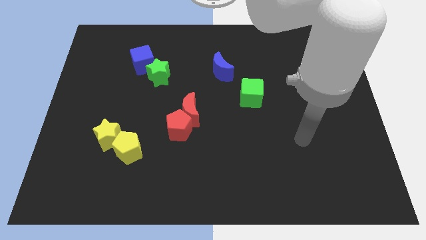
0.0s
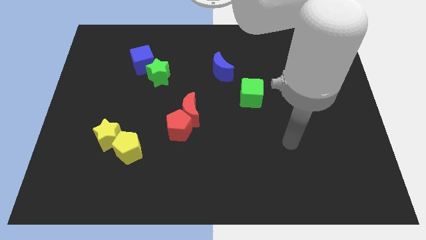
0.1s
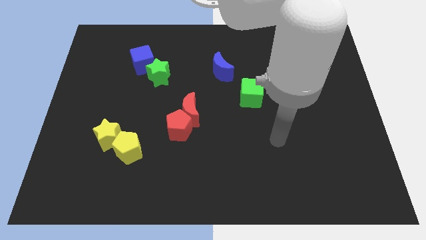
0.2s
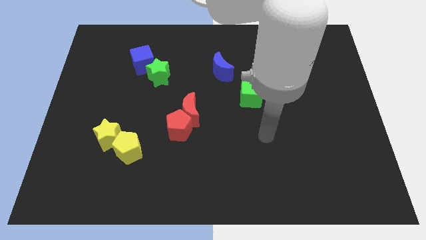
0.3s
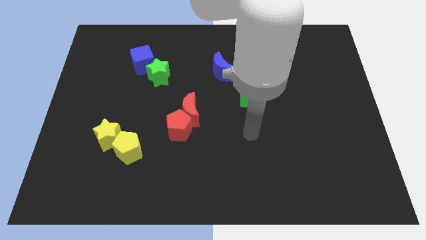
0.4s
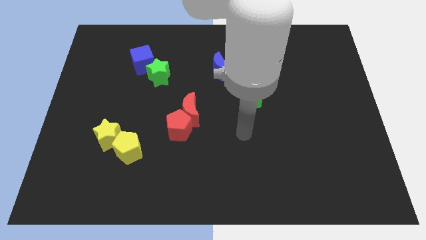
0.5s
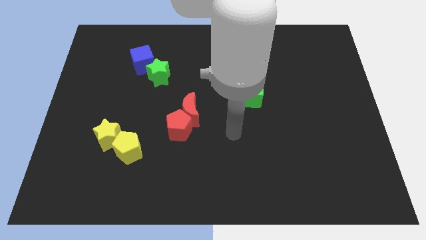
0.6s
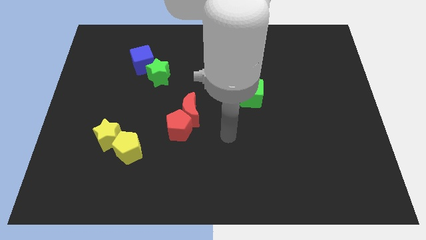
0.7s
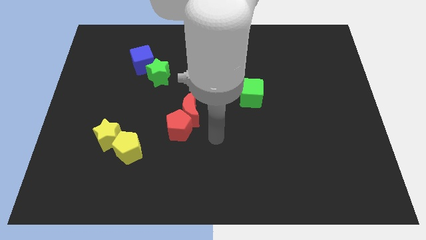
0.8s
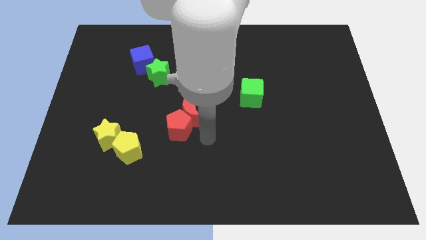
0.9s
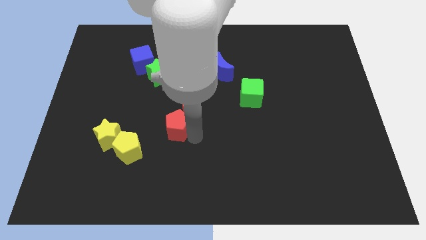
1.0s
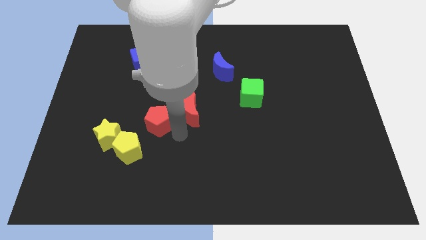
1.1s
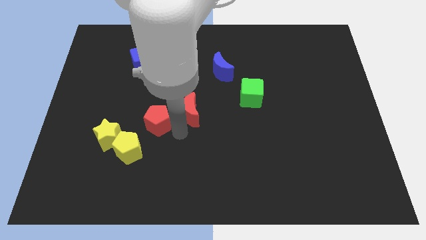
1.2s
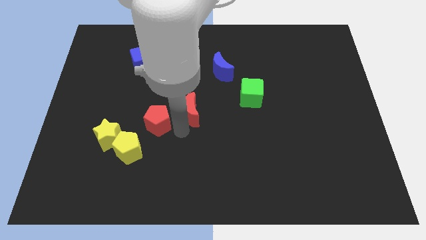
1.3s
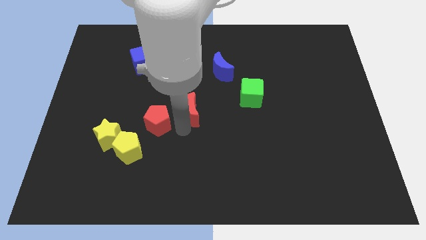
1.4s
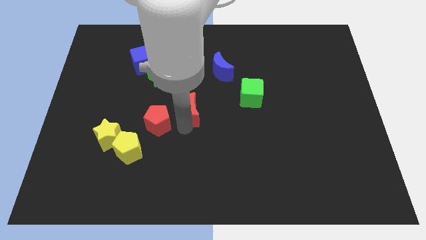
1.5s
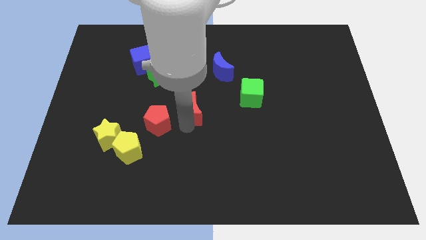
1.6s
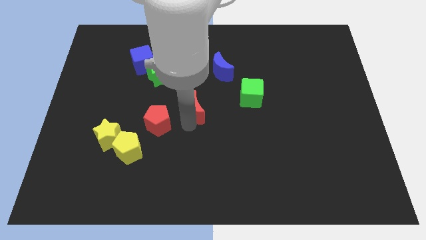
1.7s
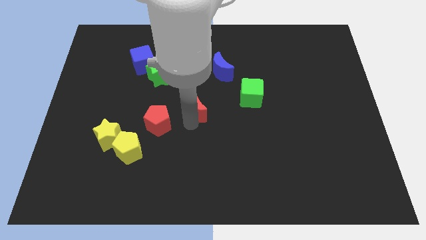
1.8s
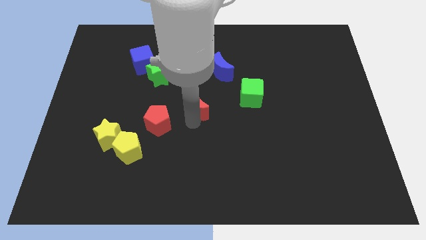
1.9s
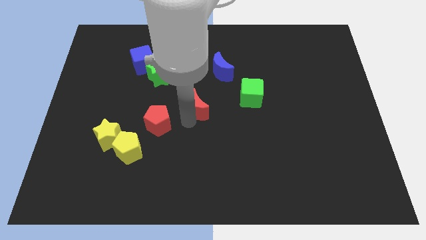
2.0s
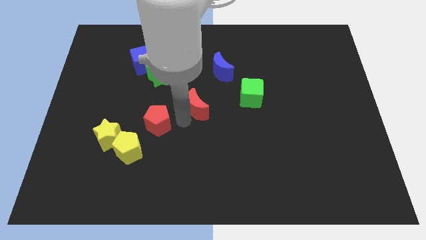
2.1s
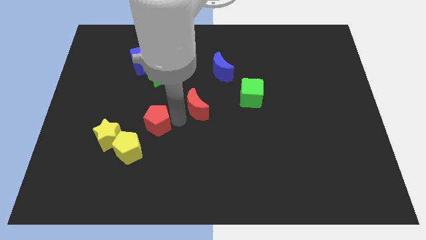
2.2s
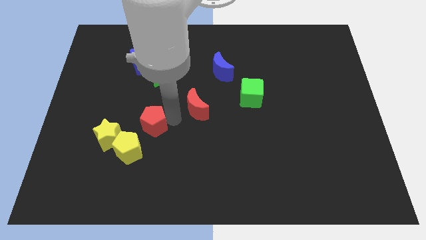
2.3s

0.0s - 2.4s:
pull the red moon apart from the red pentagon

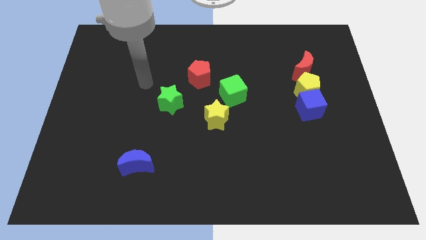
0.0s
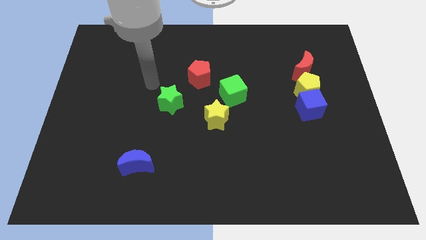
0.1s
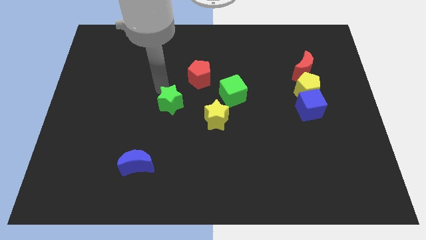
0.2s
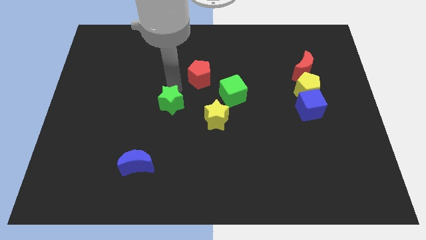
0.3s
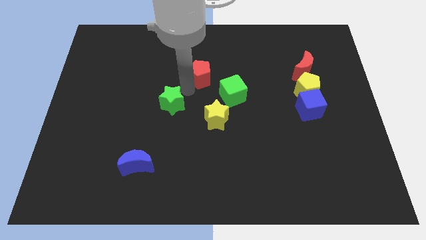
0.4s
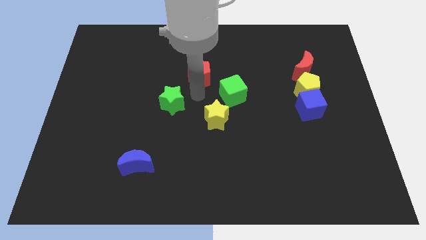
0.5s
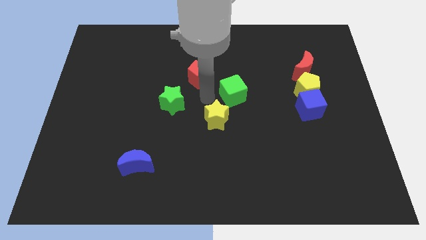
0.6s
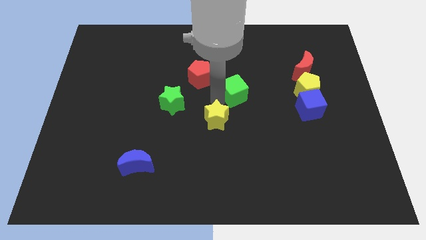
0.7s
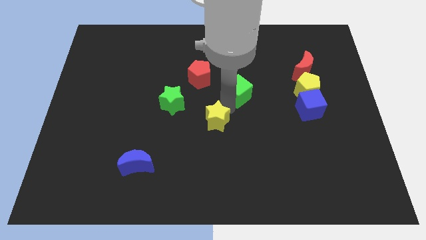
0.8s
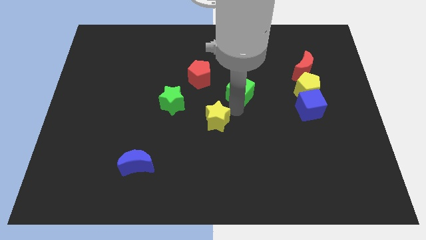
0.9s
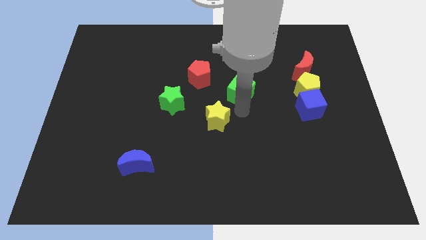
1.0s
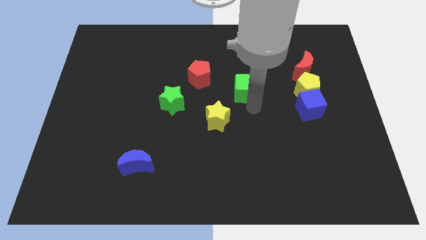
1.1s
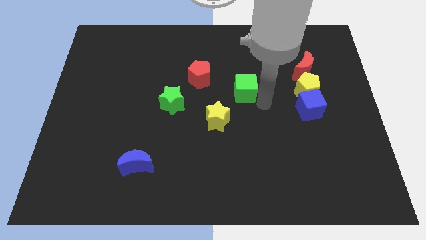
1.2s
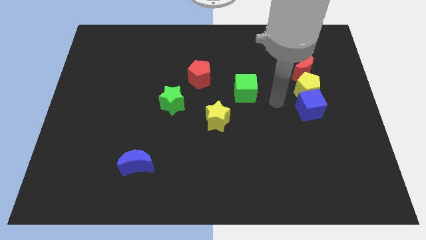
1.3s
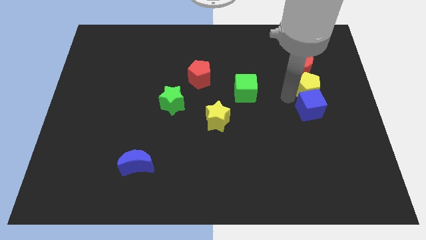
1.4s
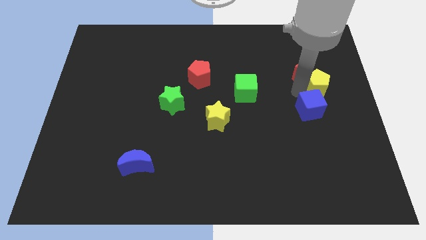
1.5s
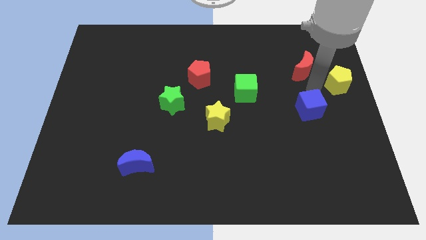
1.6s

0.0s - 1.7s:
move the blue cube away from the yellow pentagon

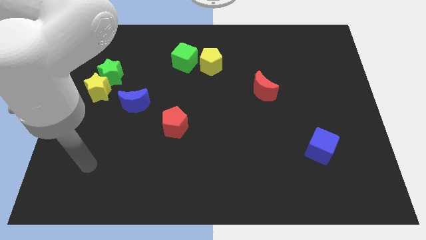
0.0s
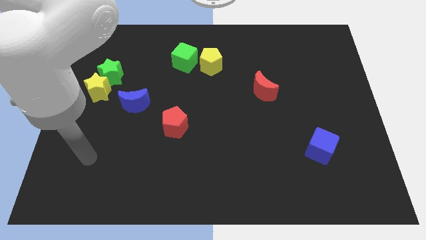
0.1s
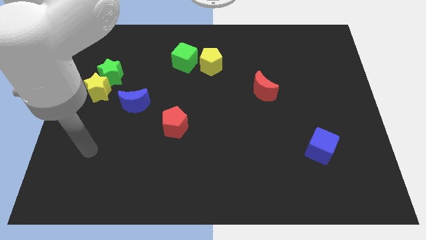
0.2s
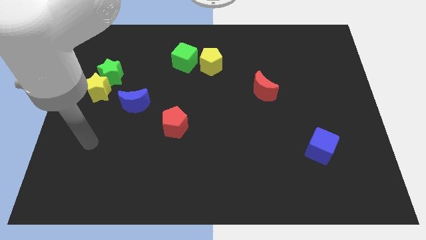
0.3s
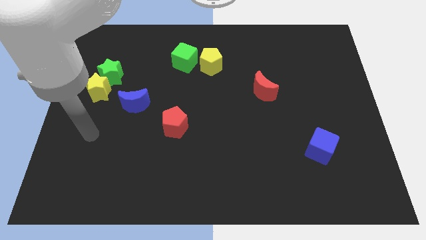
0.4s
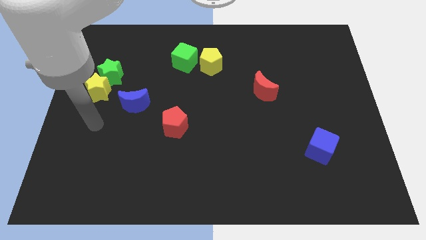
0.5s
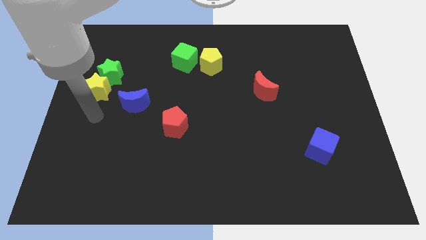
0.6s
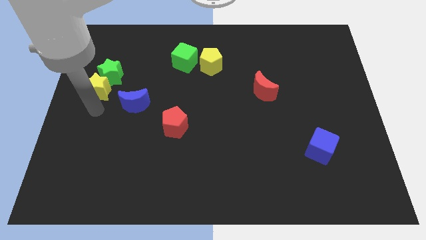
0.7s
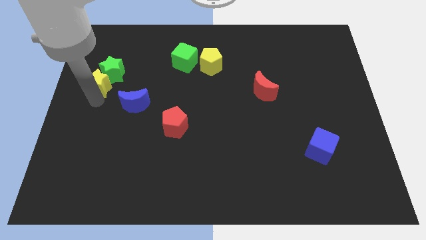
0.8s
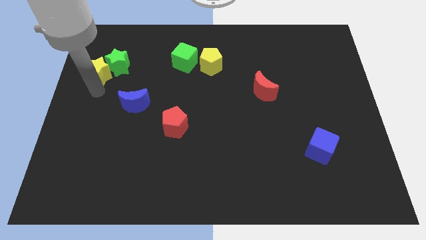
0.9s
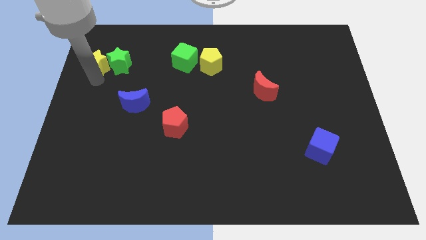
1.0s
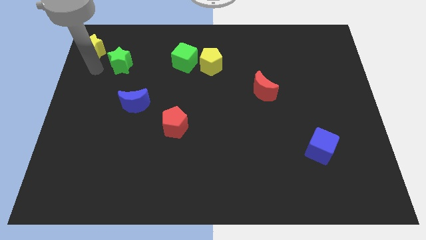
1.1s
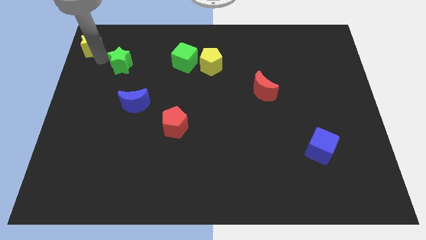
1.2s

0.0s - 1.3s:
move the green star away from the yellow star

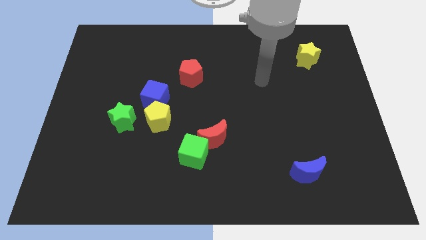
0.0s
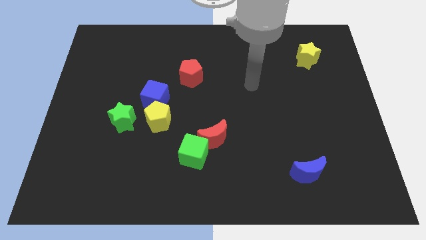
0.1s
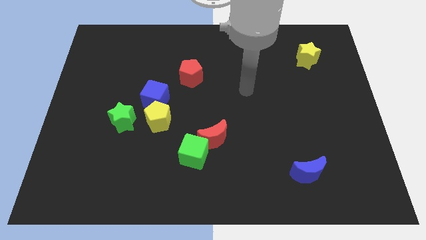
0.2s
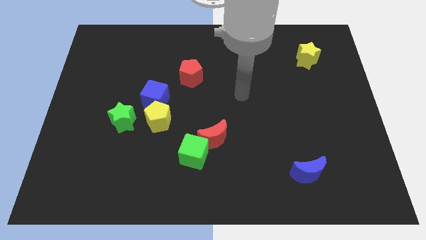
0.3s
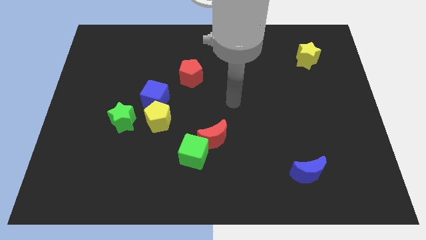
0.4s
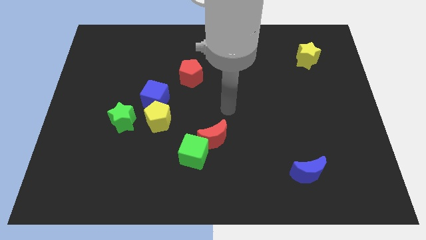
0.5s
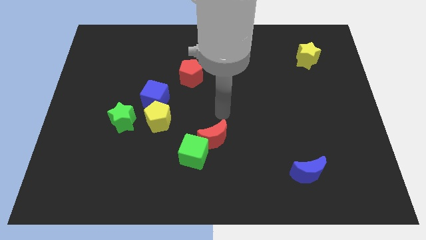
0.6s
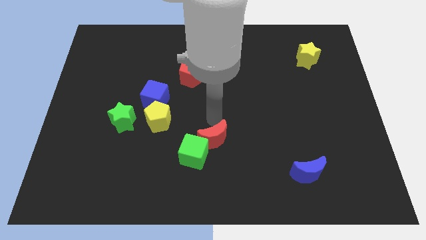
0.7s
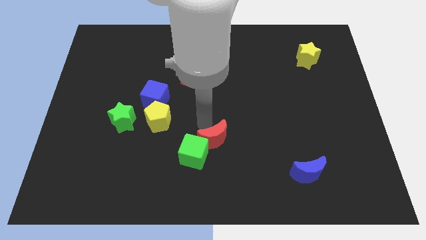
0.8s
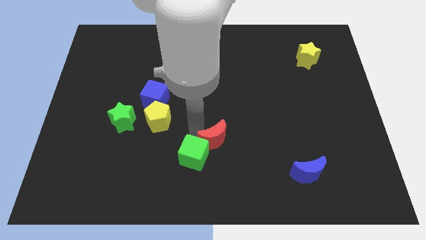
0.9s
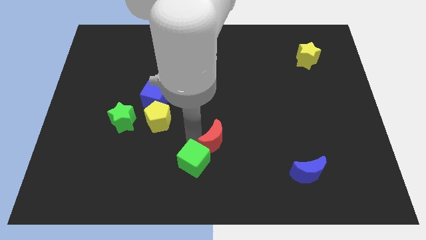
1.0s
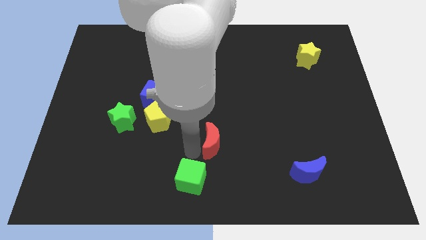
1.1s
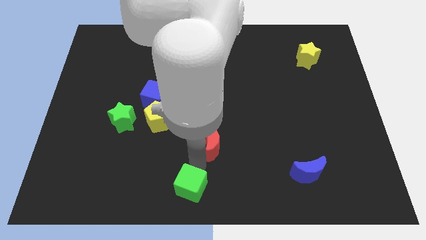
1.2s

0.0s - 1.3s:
separate the red moon from the green cube

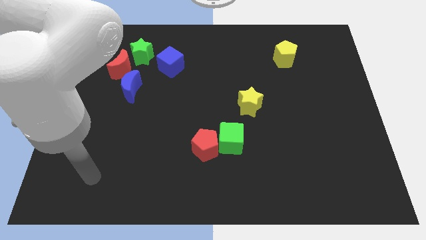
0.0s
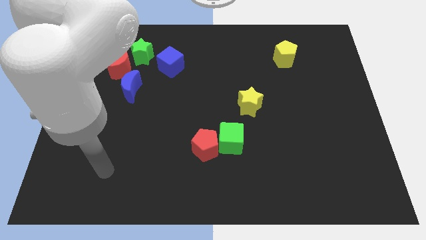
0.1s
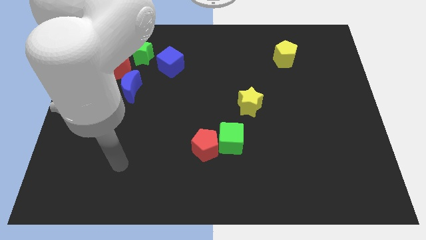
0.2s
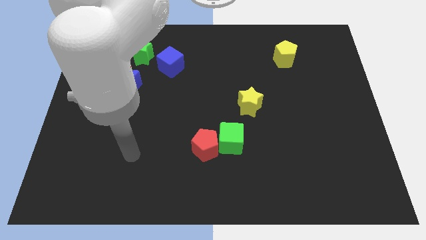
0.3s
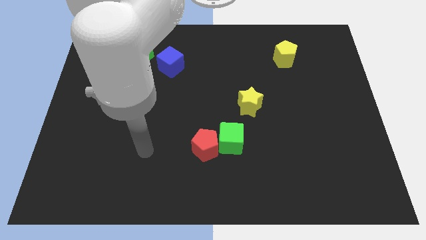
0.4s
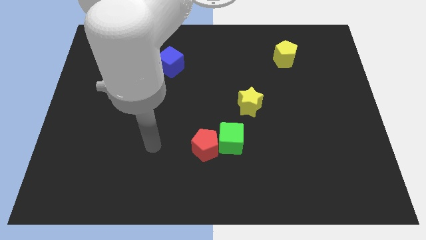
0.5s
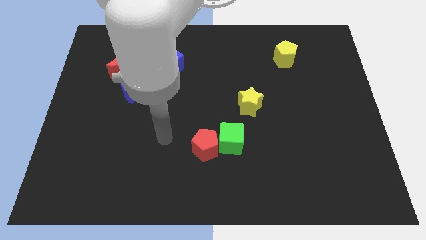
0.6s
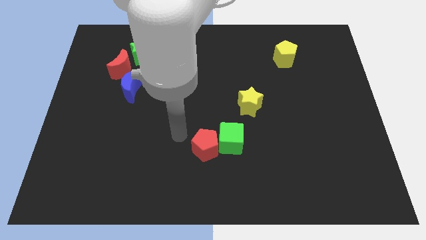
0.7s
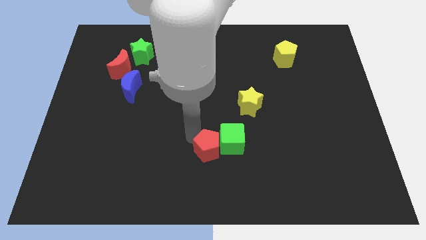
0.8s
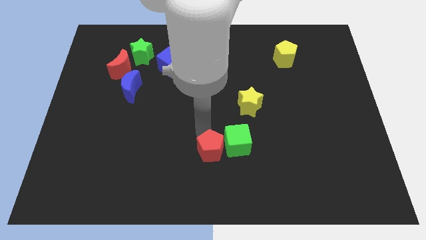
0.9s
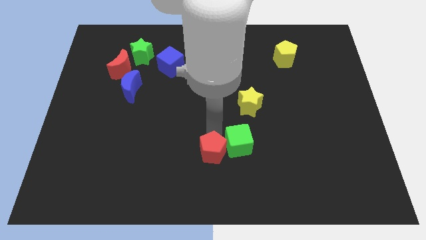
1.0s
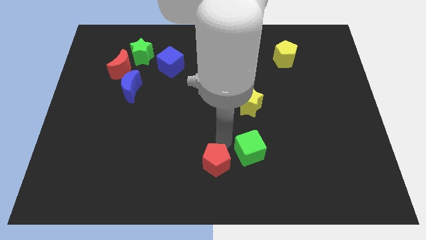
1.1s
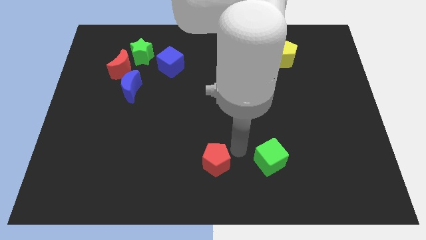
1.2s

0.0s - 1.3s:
pull the red pentagon apart from the green cube

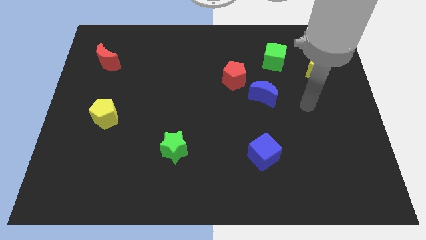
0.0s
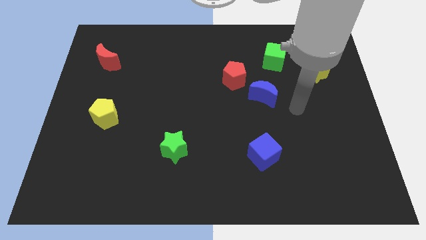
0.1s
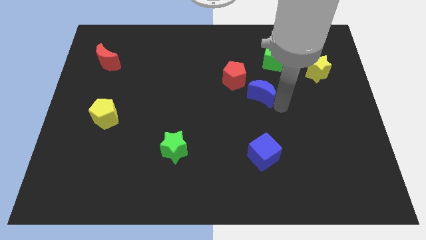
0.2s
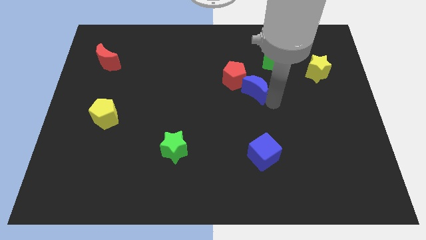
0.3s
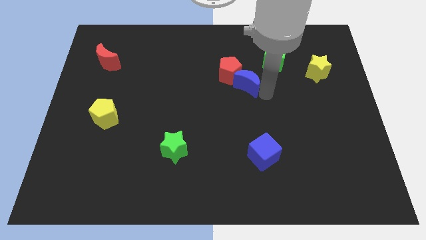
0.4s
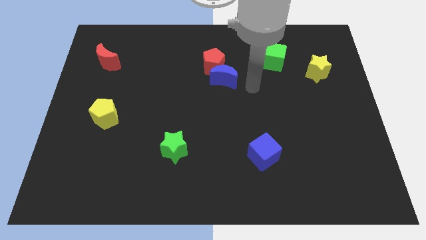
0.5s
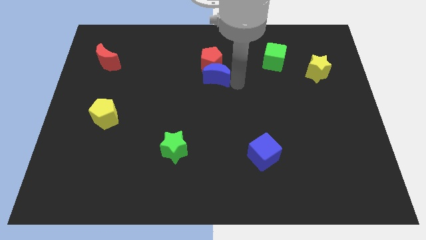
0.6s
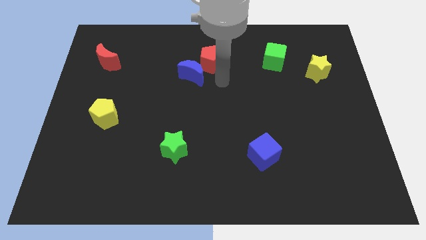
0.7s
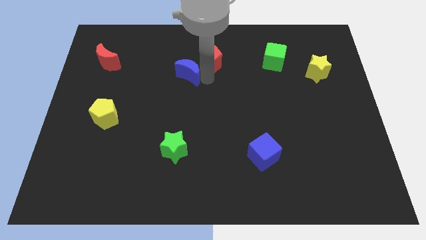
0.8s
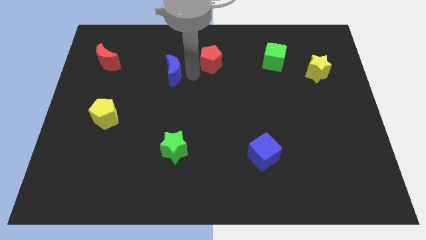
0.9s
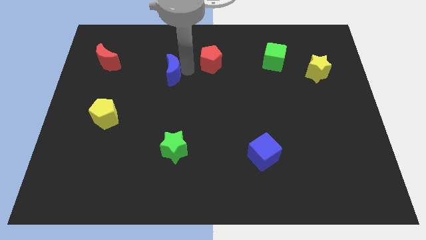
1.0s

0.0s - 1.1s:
pull the red pentagon apart from the blue moon

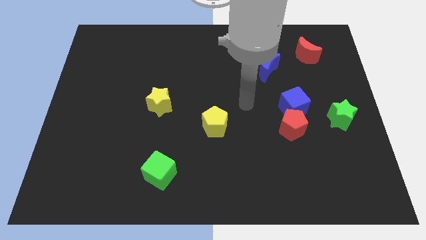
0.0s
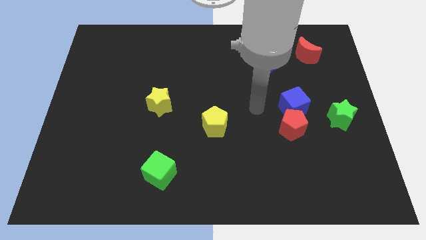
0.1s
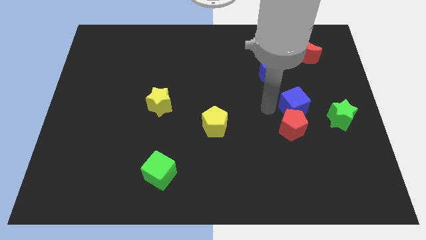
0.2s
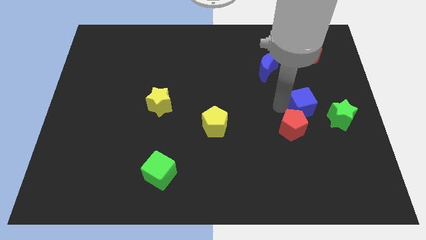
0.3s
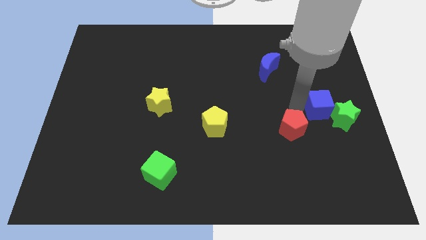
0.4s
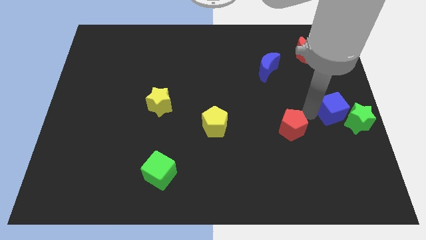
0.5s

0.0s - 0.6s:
separate the red pentagon from the blue cube
